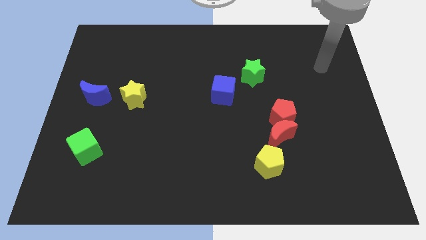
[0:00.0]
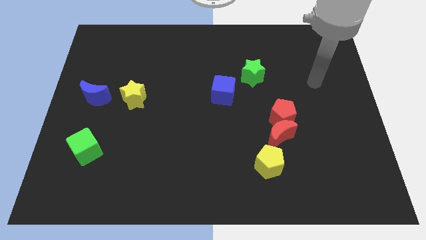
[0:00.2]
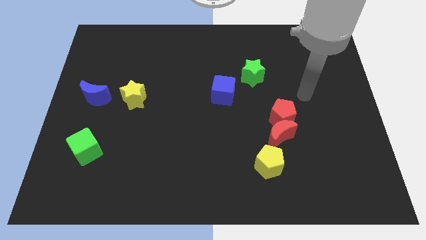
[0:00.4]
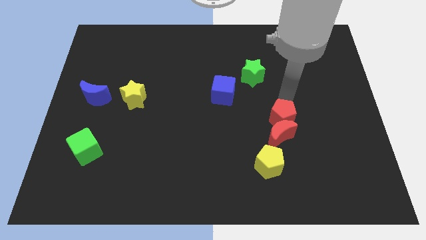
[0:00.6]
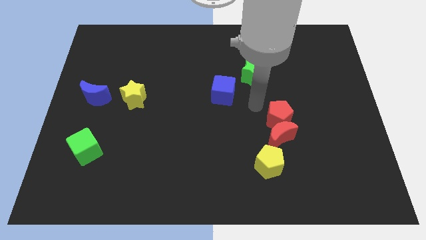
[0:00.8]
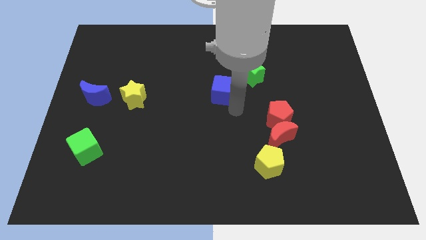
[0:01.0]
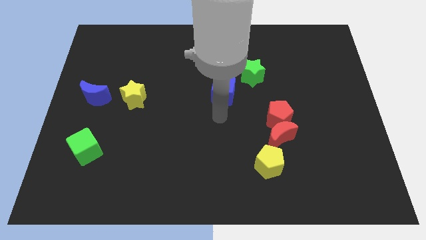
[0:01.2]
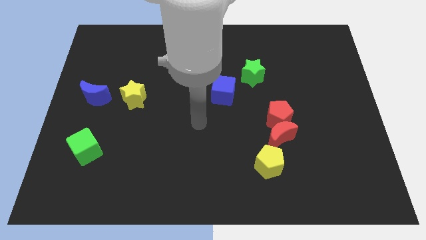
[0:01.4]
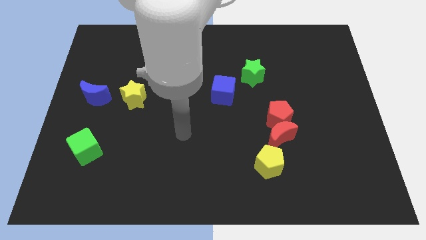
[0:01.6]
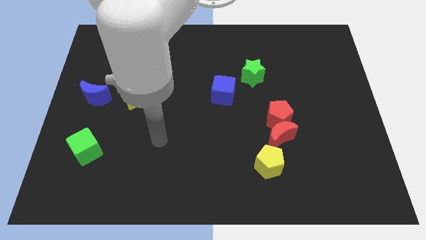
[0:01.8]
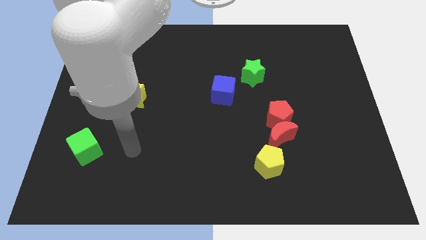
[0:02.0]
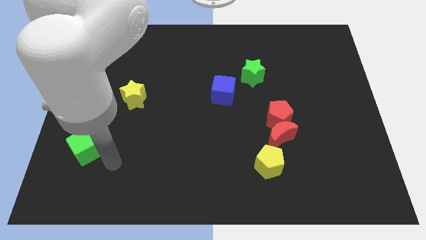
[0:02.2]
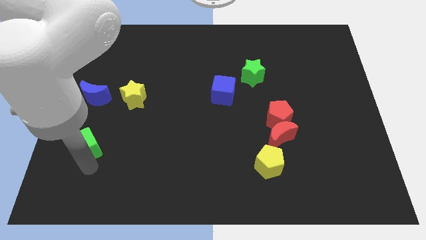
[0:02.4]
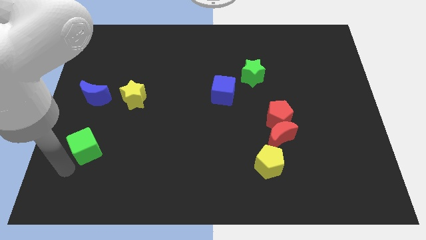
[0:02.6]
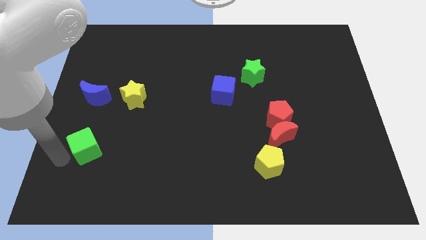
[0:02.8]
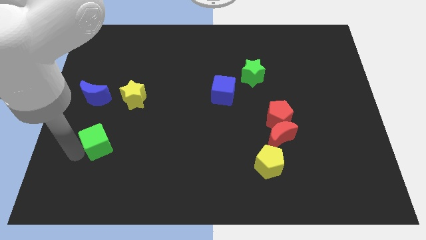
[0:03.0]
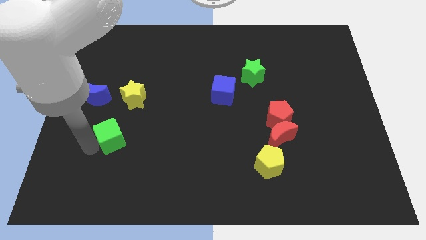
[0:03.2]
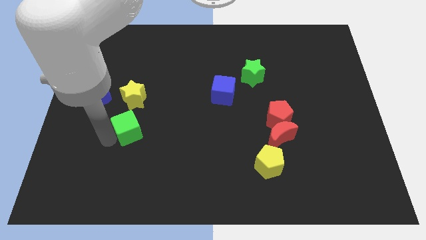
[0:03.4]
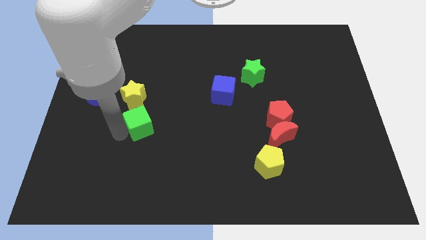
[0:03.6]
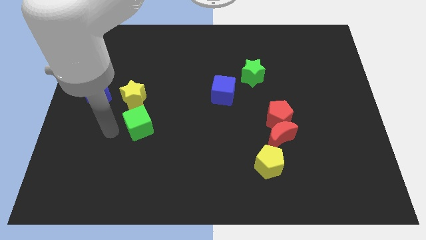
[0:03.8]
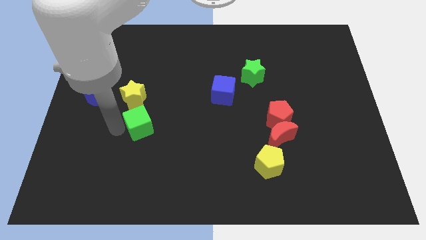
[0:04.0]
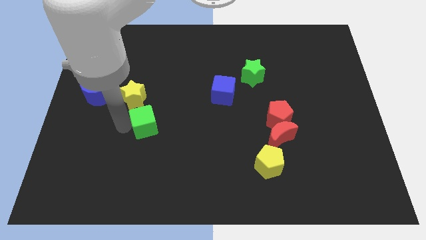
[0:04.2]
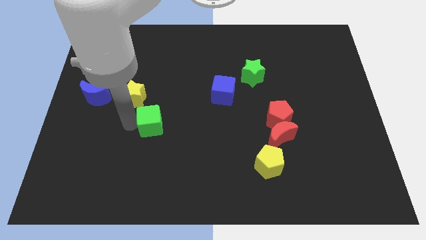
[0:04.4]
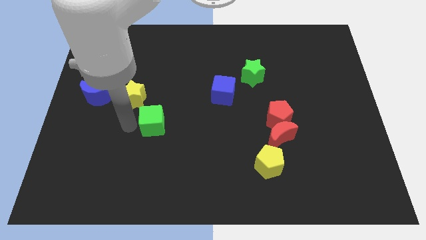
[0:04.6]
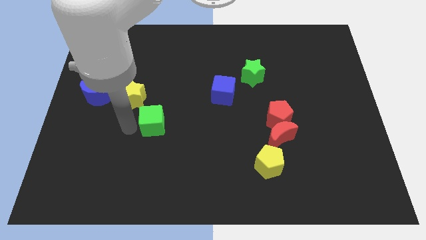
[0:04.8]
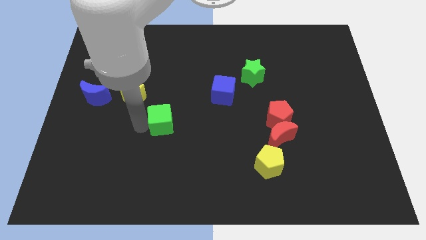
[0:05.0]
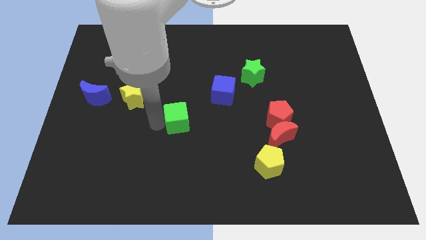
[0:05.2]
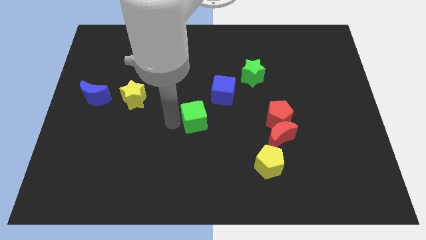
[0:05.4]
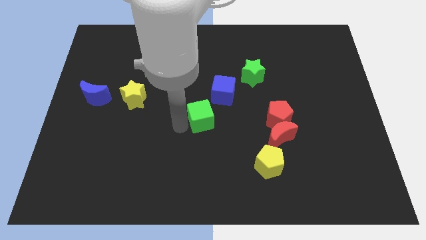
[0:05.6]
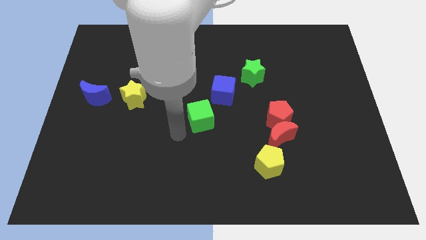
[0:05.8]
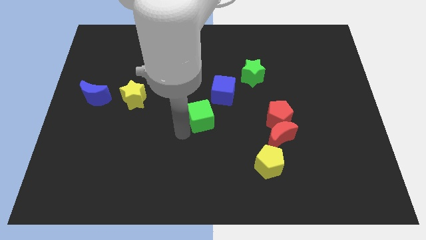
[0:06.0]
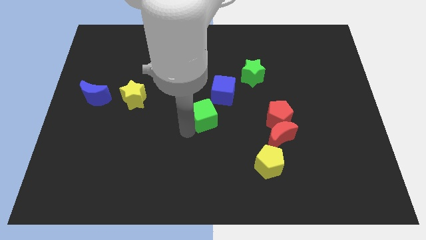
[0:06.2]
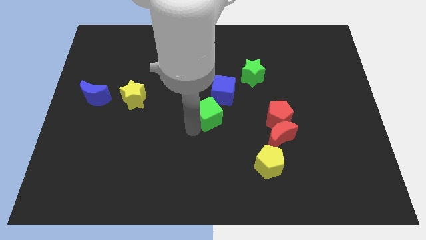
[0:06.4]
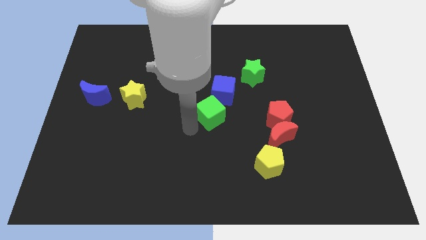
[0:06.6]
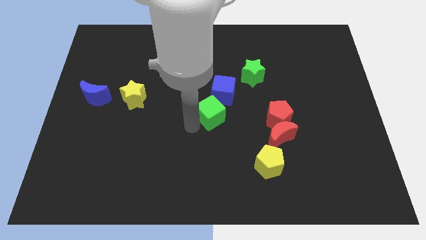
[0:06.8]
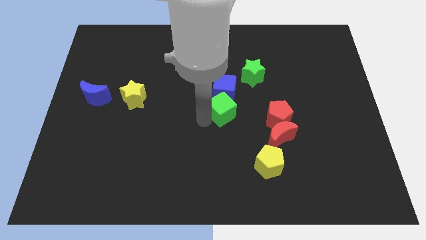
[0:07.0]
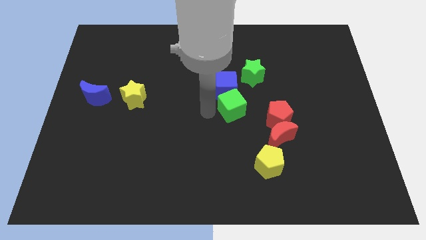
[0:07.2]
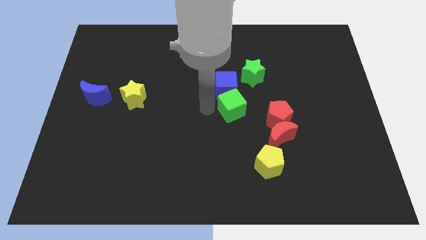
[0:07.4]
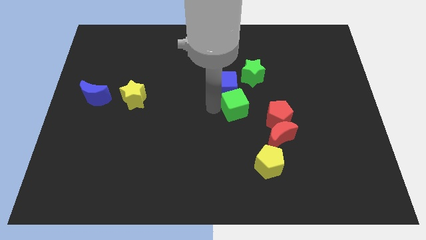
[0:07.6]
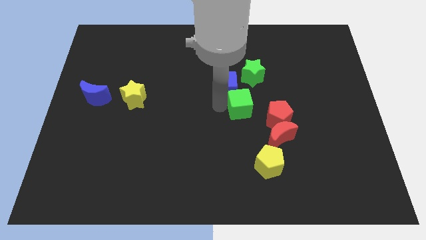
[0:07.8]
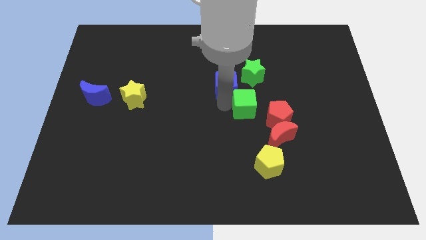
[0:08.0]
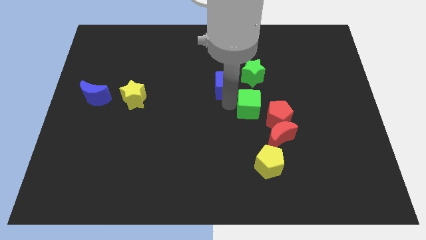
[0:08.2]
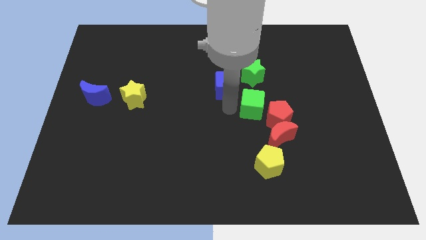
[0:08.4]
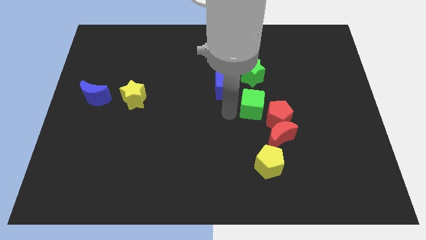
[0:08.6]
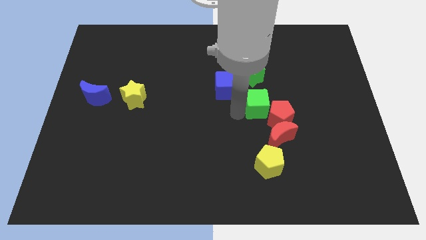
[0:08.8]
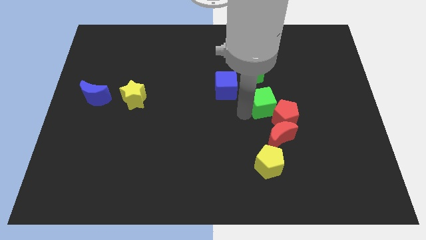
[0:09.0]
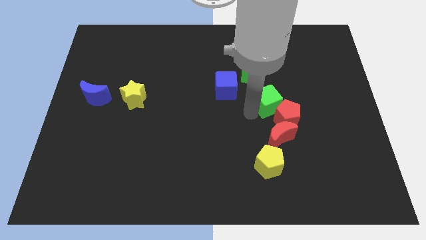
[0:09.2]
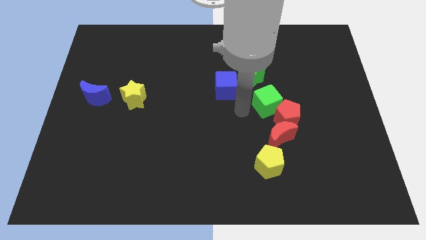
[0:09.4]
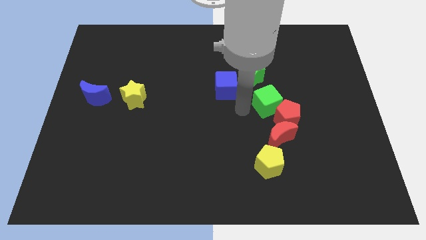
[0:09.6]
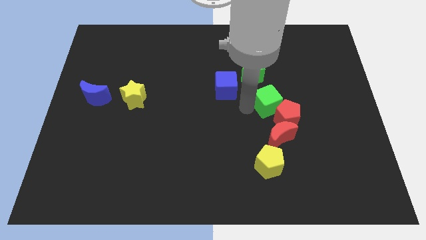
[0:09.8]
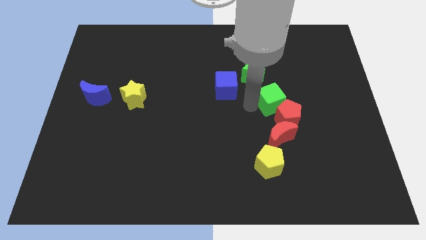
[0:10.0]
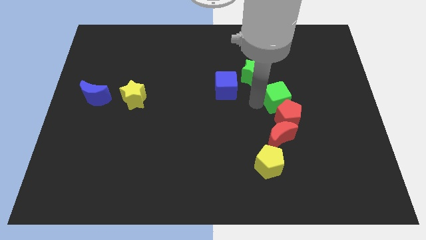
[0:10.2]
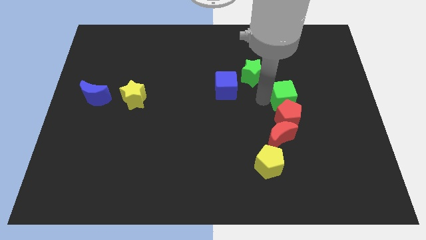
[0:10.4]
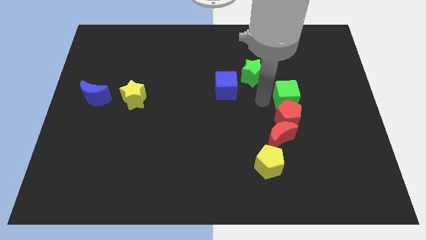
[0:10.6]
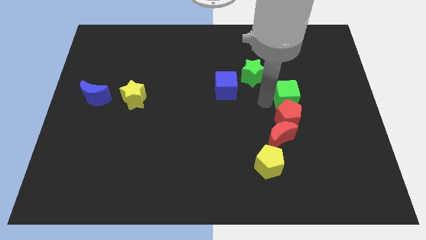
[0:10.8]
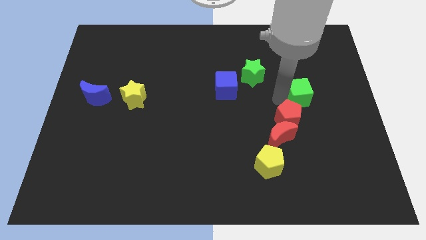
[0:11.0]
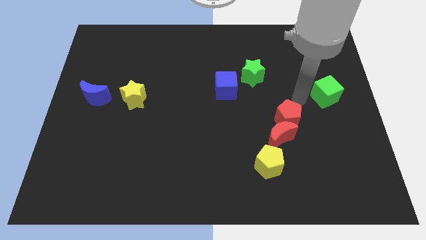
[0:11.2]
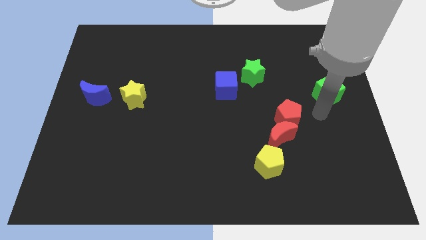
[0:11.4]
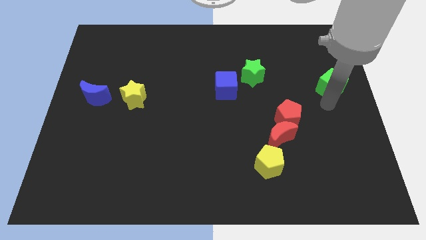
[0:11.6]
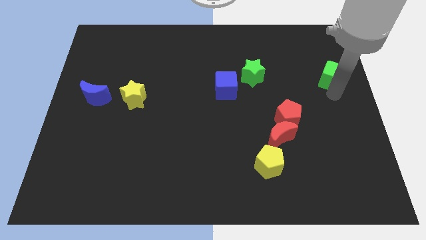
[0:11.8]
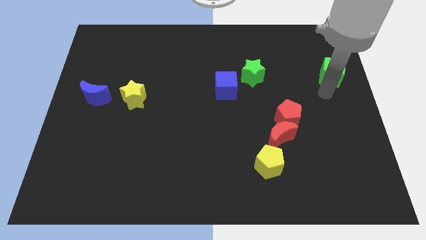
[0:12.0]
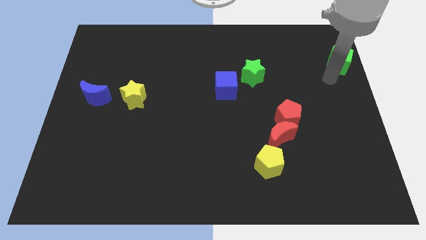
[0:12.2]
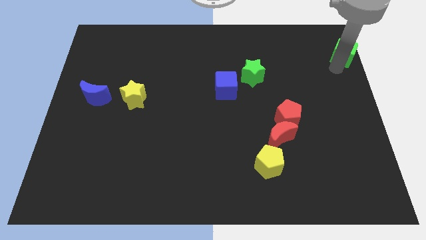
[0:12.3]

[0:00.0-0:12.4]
move the green cube to the top right
